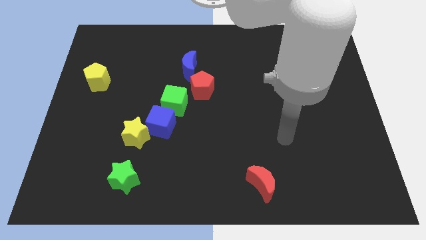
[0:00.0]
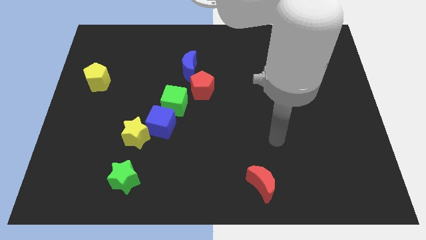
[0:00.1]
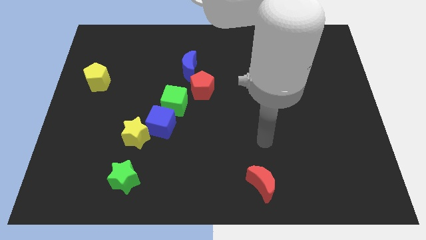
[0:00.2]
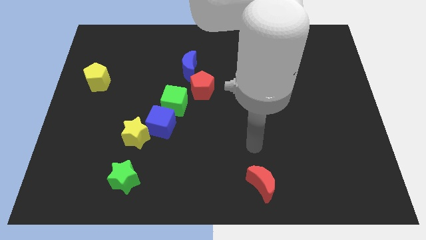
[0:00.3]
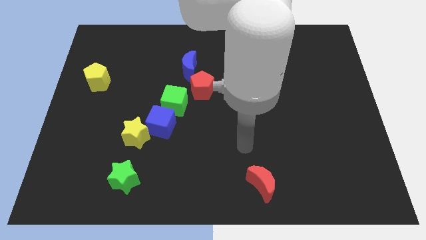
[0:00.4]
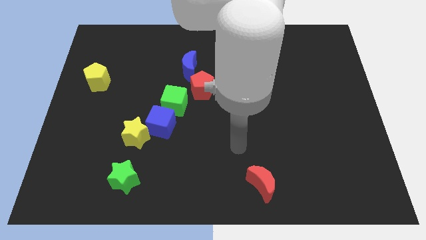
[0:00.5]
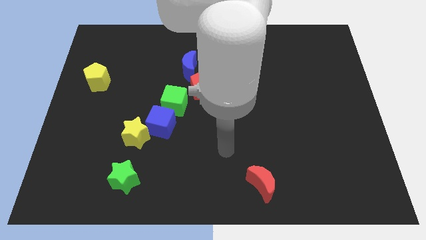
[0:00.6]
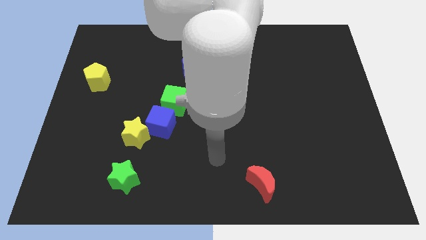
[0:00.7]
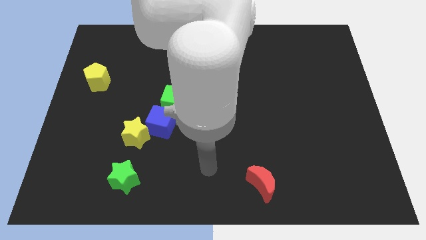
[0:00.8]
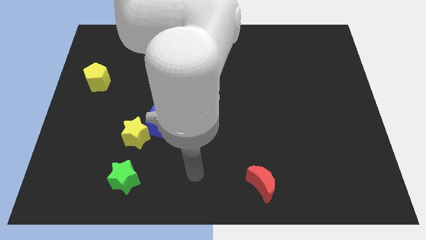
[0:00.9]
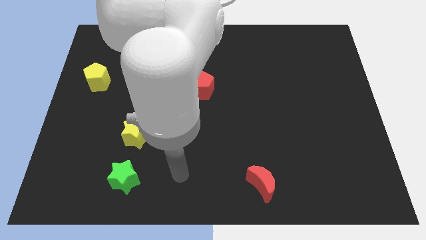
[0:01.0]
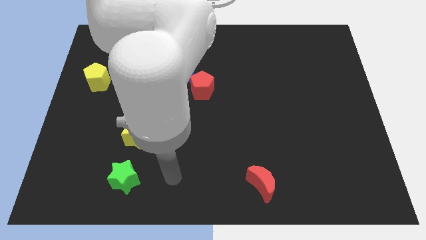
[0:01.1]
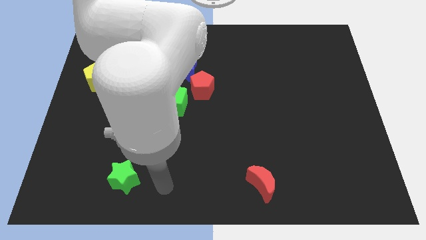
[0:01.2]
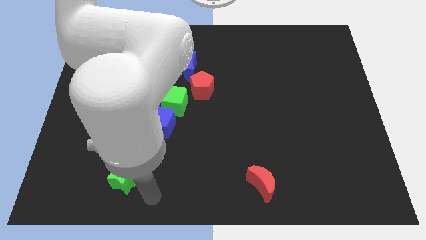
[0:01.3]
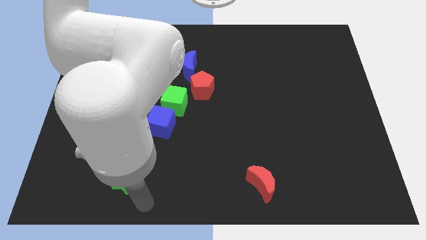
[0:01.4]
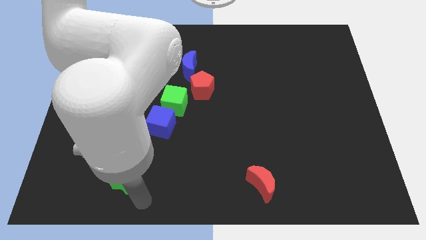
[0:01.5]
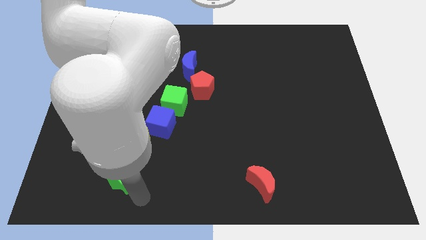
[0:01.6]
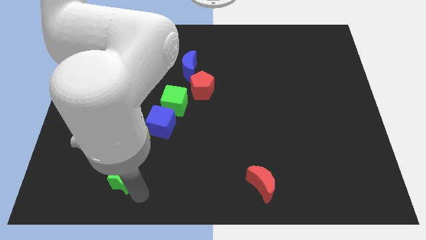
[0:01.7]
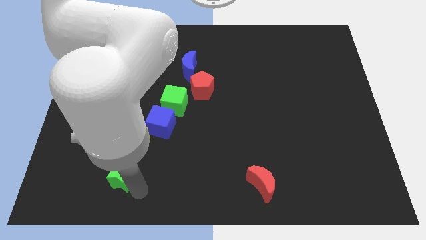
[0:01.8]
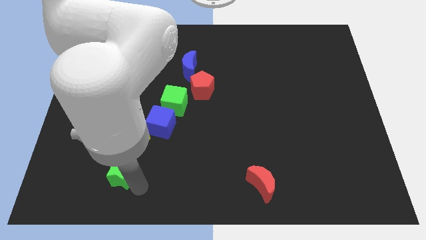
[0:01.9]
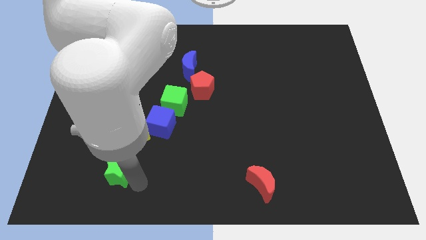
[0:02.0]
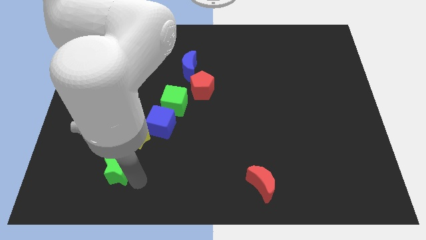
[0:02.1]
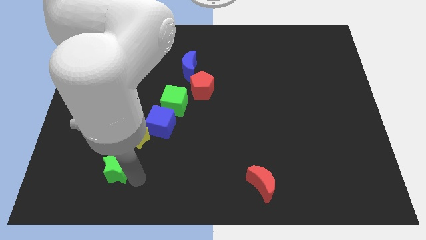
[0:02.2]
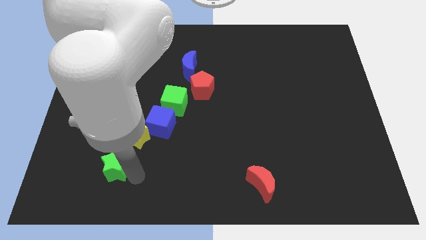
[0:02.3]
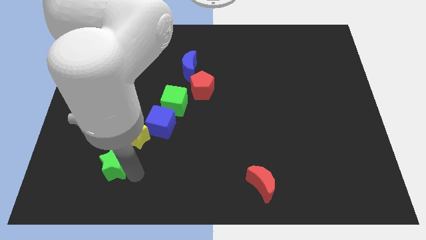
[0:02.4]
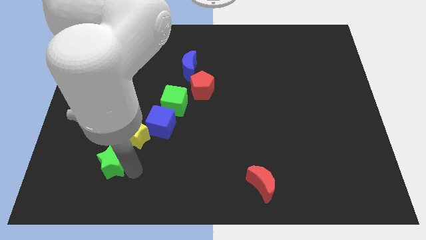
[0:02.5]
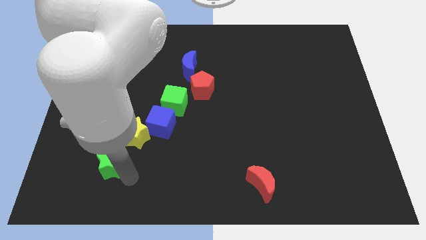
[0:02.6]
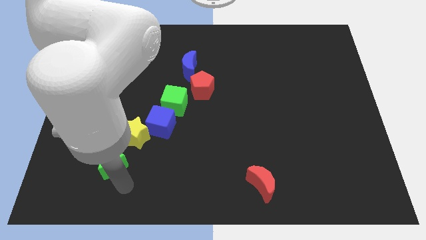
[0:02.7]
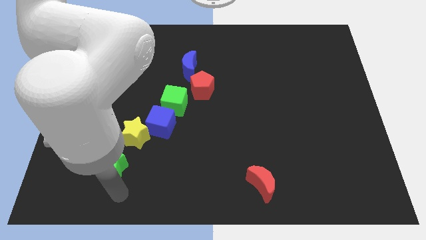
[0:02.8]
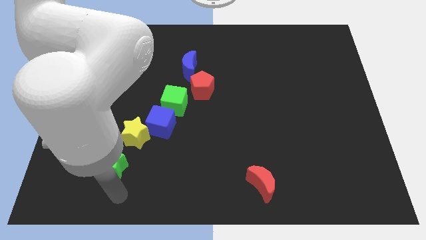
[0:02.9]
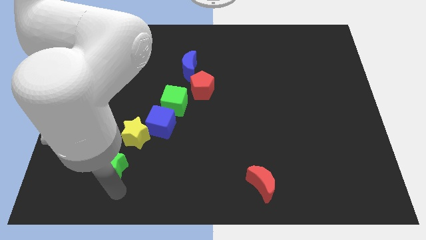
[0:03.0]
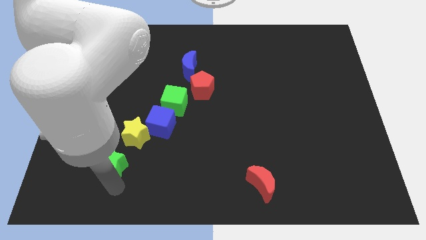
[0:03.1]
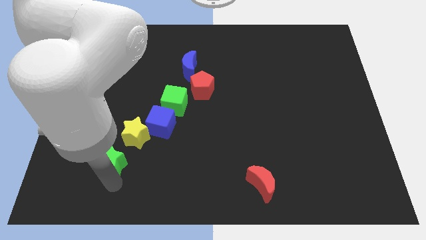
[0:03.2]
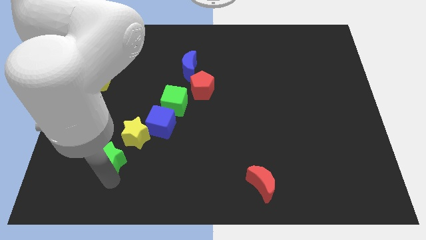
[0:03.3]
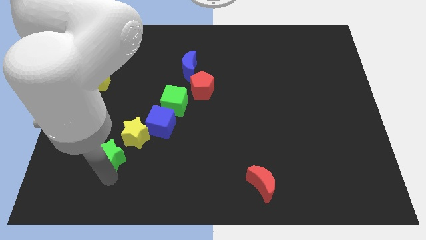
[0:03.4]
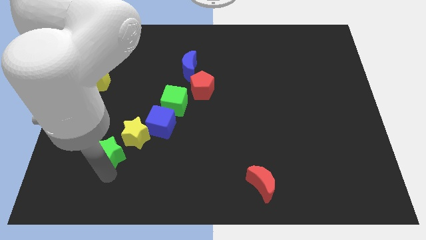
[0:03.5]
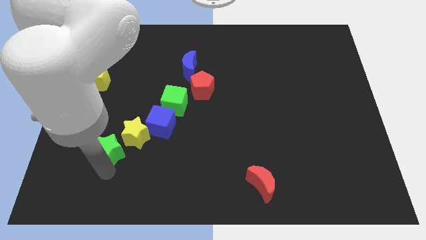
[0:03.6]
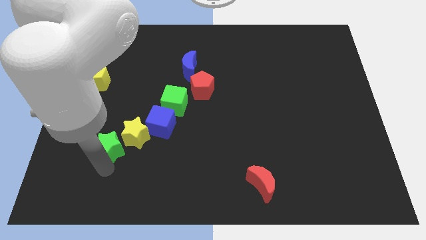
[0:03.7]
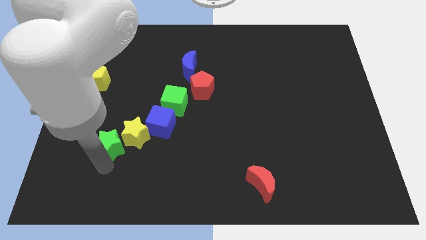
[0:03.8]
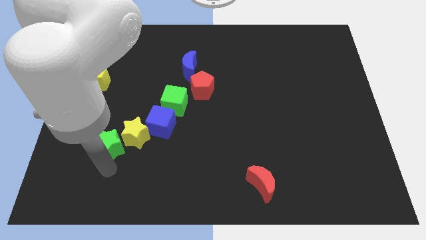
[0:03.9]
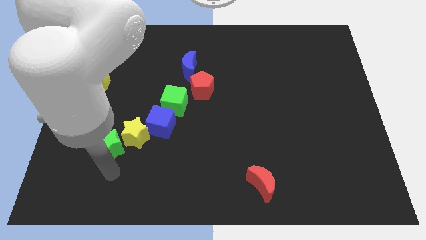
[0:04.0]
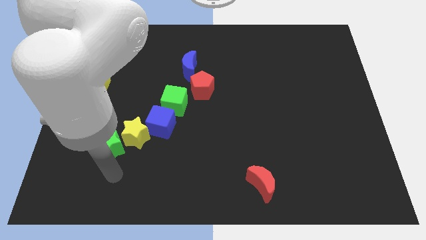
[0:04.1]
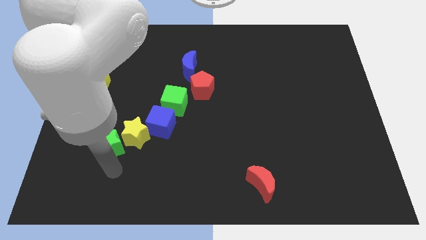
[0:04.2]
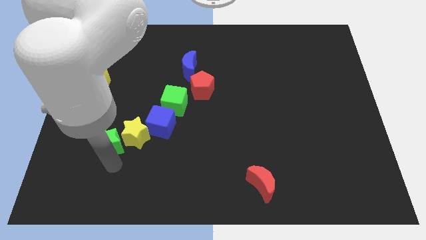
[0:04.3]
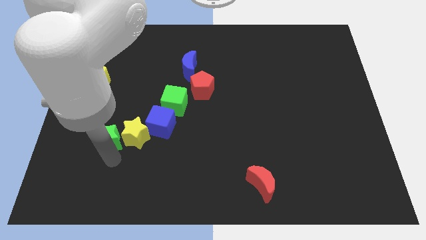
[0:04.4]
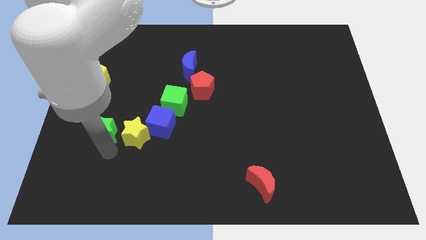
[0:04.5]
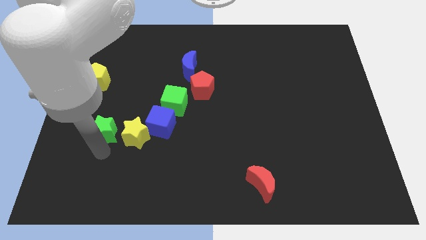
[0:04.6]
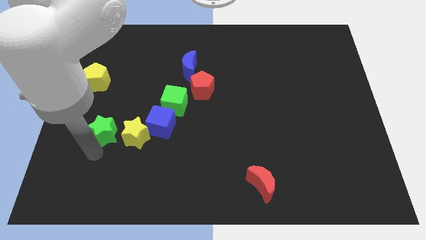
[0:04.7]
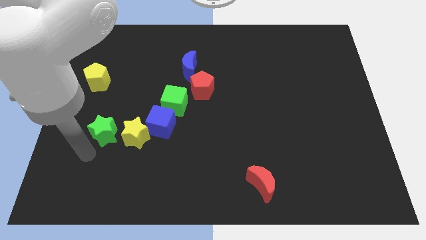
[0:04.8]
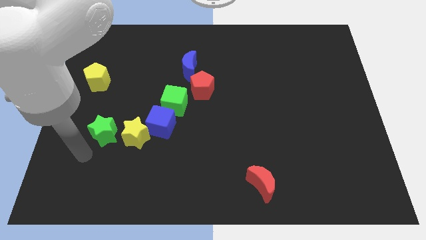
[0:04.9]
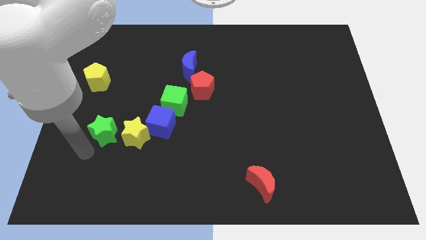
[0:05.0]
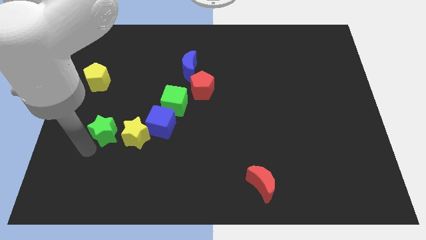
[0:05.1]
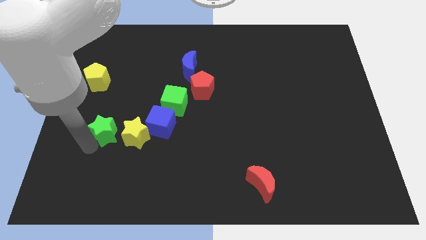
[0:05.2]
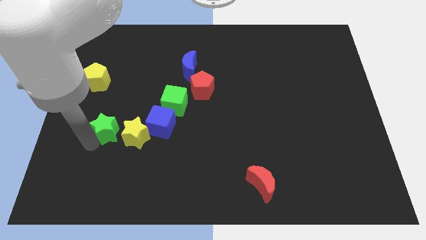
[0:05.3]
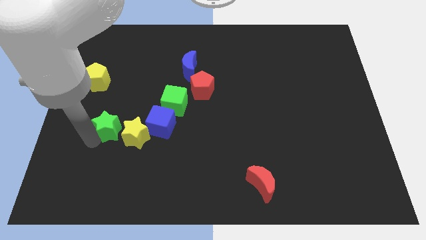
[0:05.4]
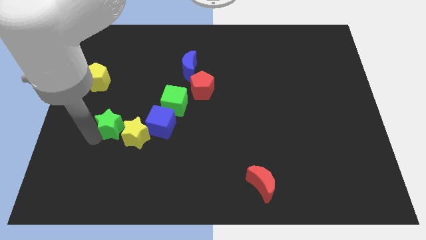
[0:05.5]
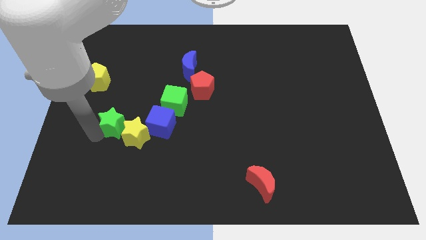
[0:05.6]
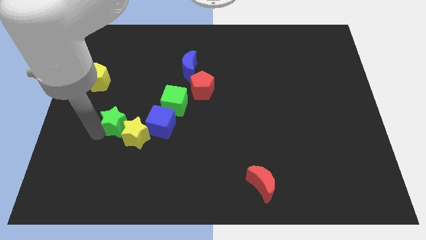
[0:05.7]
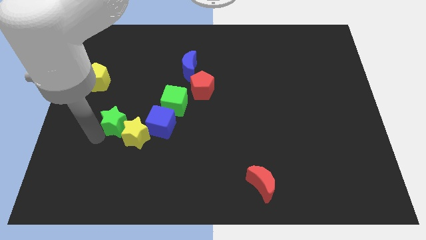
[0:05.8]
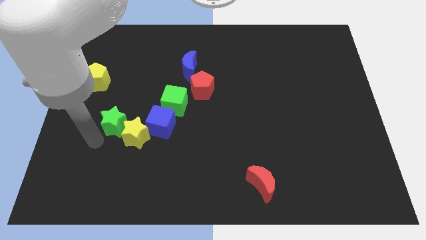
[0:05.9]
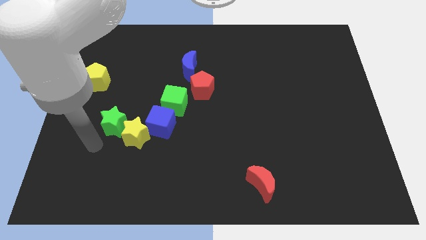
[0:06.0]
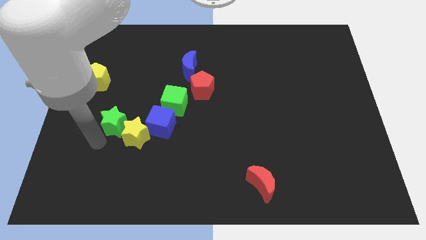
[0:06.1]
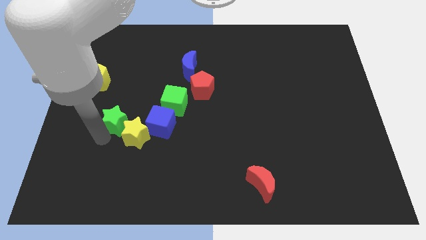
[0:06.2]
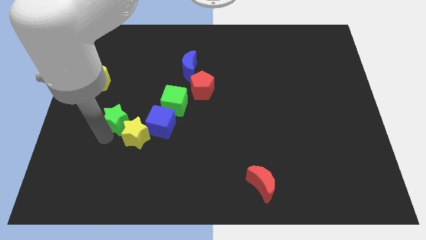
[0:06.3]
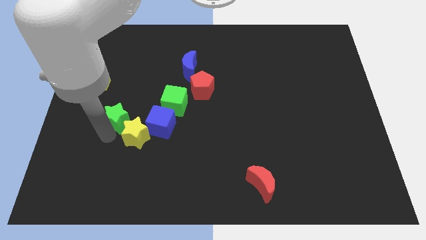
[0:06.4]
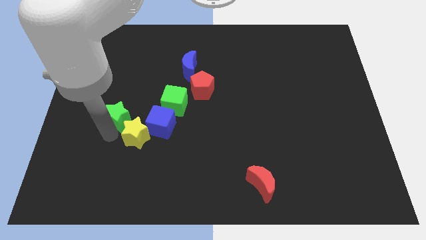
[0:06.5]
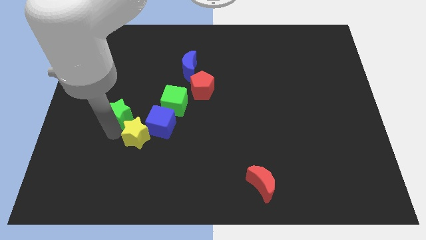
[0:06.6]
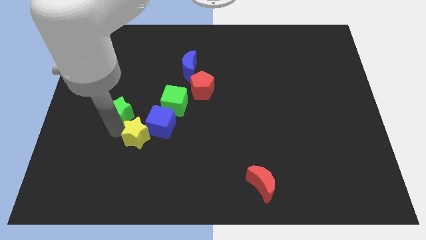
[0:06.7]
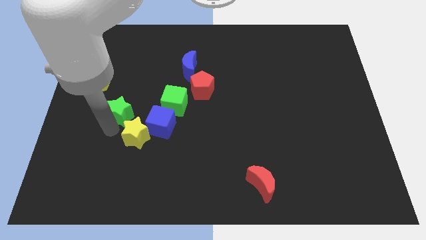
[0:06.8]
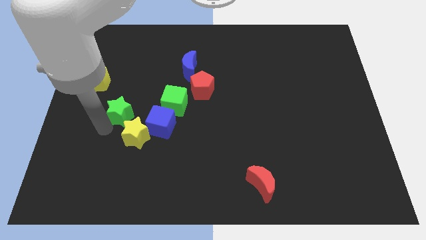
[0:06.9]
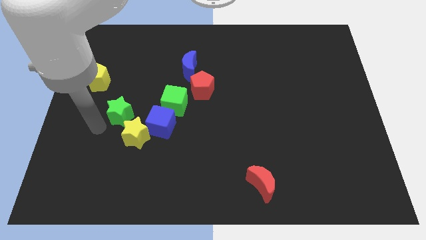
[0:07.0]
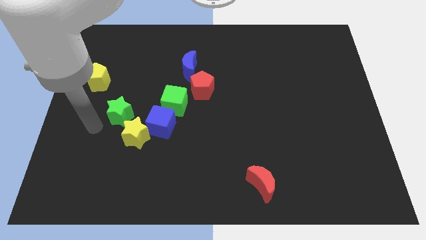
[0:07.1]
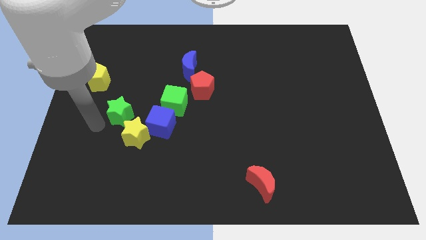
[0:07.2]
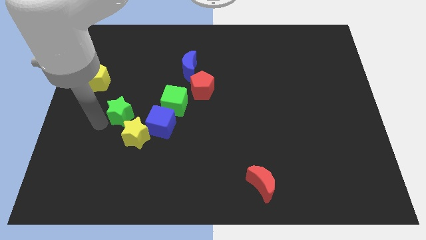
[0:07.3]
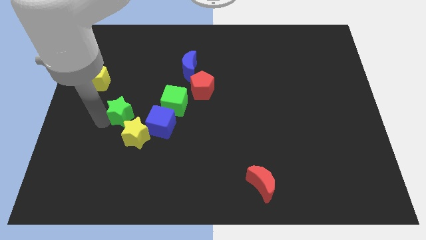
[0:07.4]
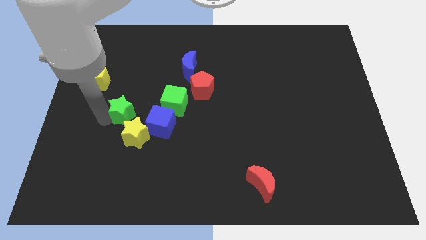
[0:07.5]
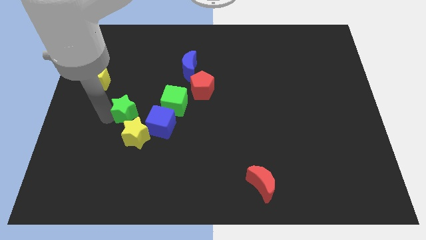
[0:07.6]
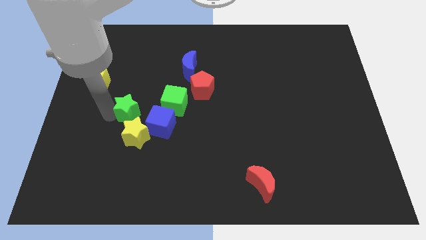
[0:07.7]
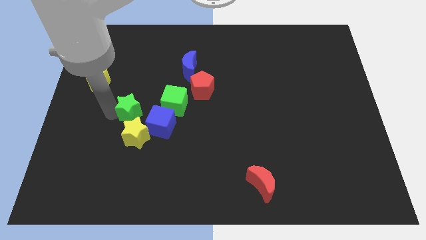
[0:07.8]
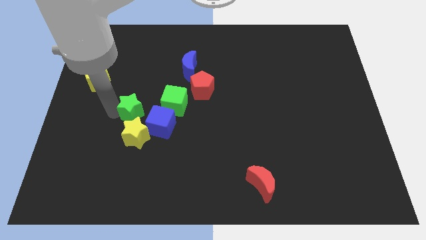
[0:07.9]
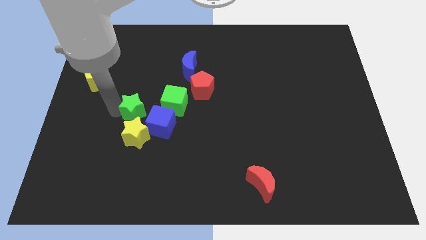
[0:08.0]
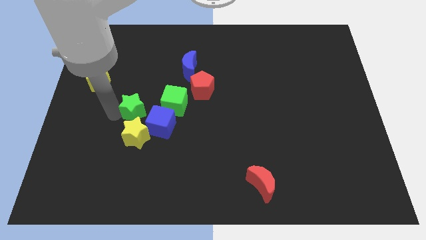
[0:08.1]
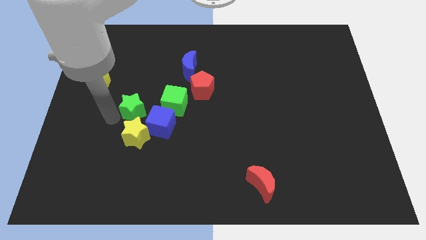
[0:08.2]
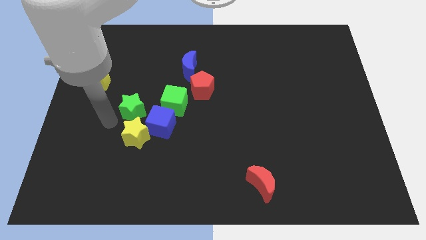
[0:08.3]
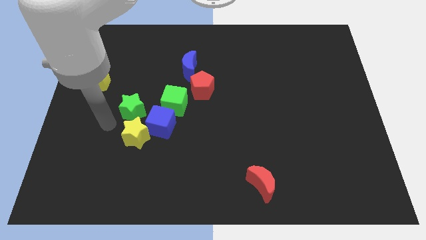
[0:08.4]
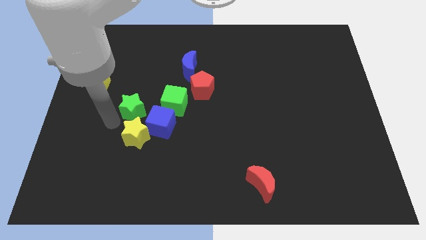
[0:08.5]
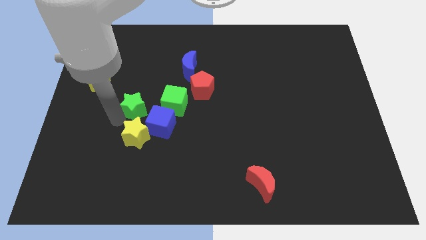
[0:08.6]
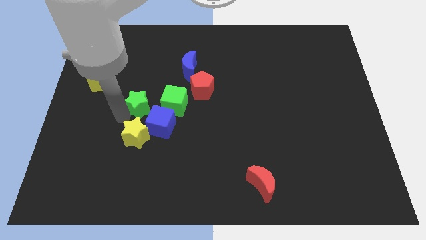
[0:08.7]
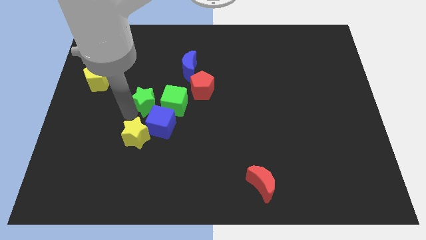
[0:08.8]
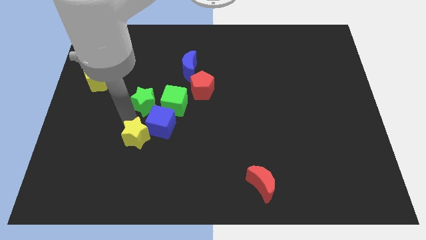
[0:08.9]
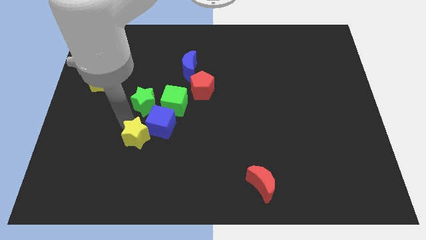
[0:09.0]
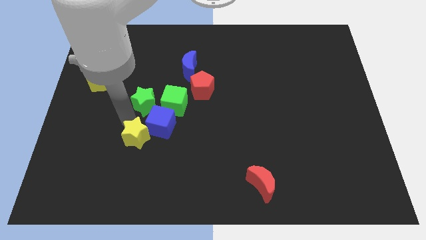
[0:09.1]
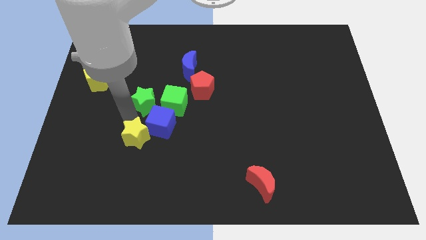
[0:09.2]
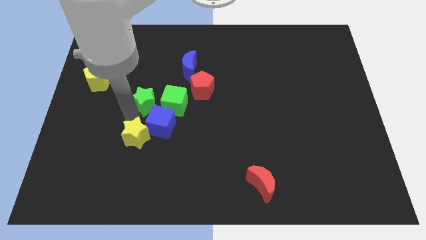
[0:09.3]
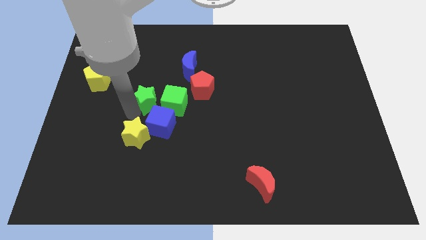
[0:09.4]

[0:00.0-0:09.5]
slide the green star left of the red pentagon
